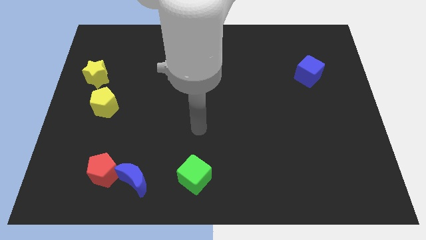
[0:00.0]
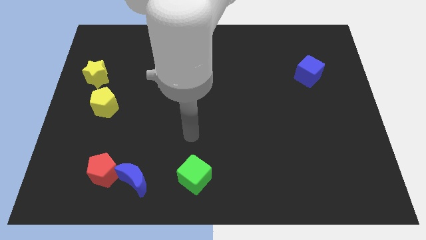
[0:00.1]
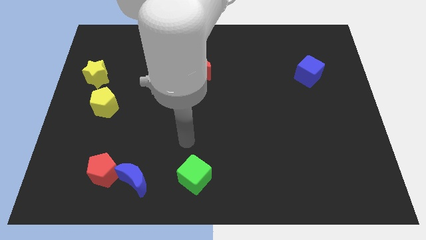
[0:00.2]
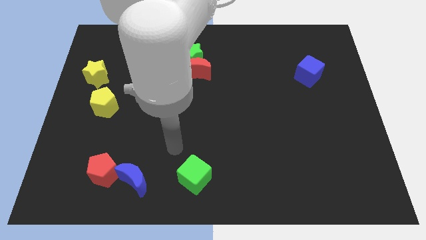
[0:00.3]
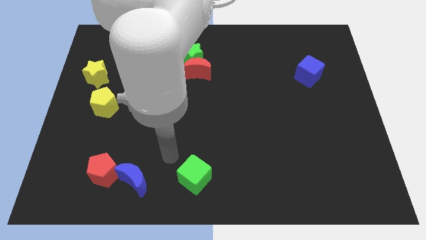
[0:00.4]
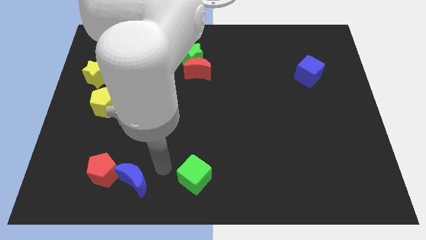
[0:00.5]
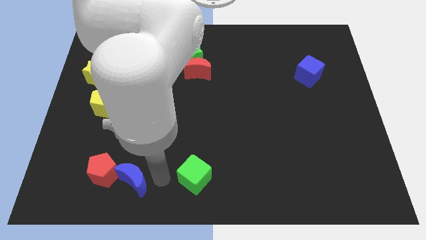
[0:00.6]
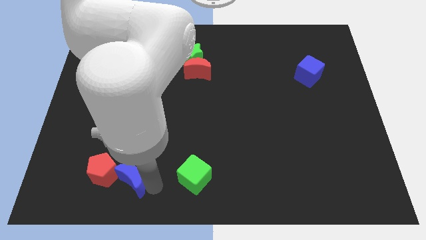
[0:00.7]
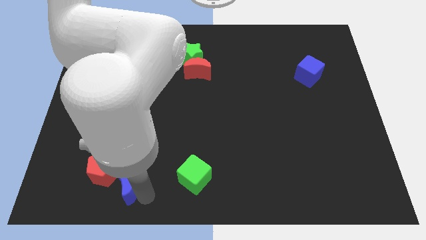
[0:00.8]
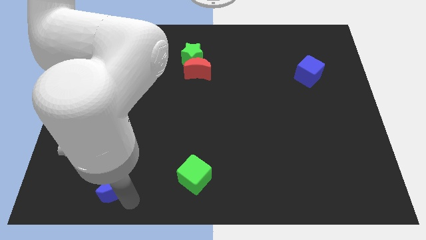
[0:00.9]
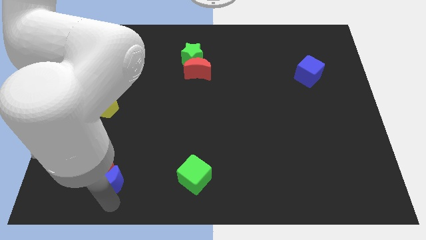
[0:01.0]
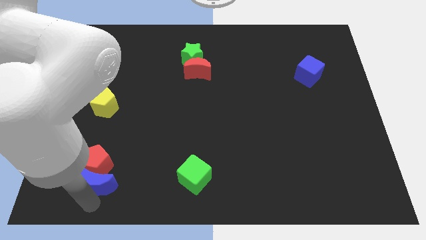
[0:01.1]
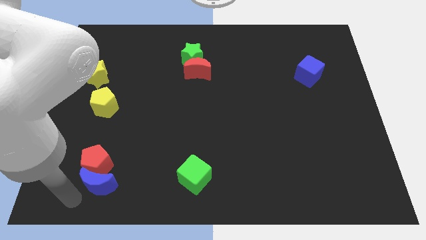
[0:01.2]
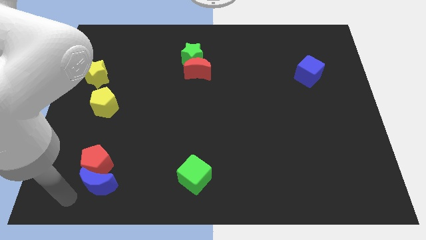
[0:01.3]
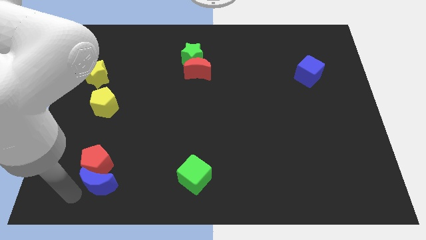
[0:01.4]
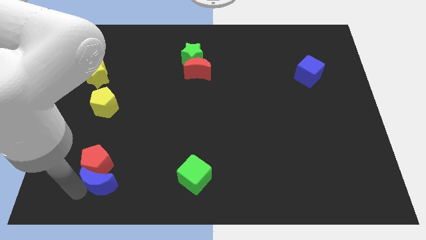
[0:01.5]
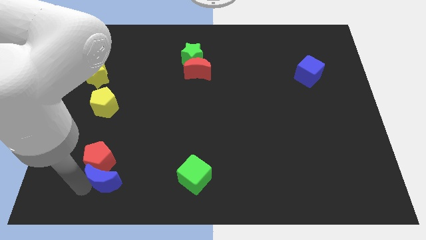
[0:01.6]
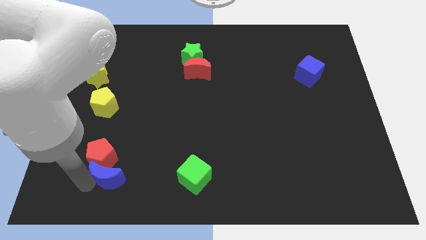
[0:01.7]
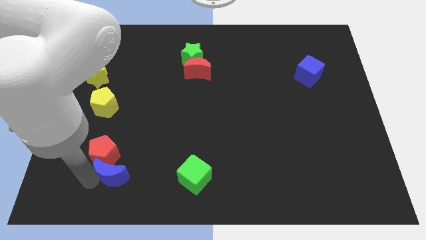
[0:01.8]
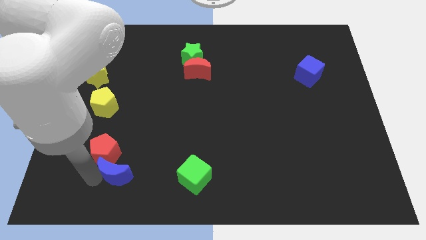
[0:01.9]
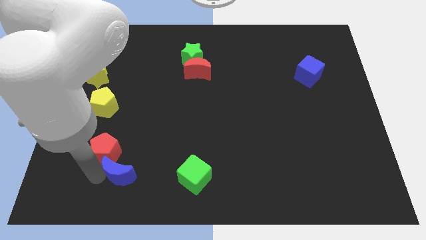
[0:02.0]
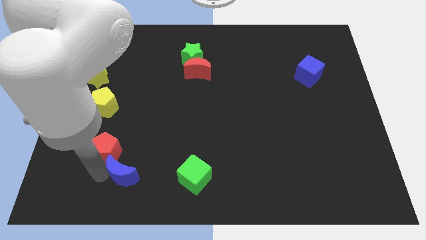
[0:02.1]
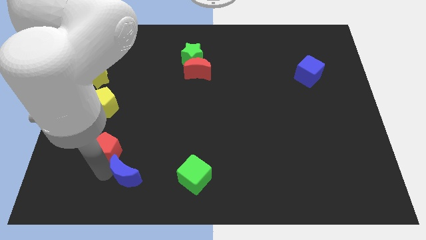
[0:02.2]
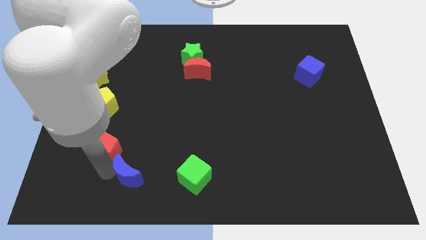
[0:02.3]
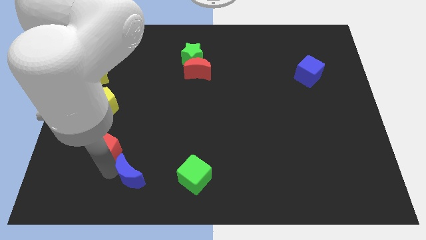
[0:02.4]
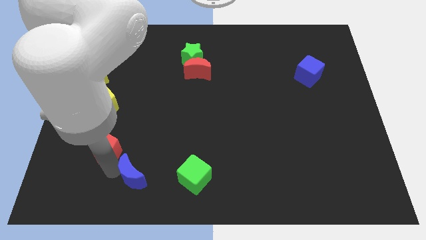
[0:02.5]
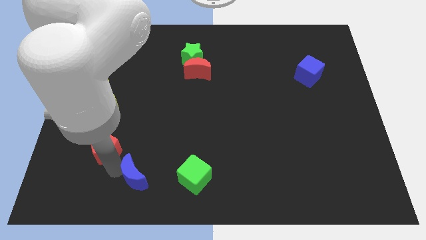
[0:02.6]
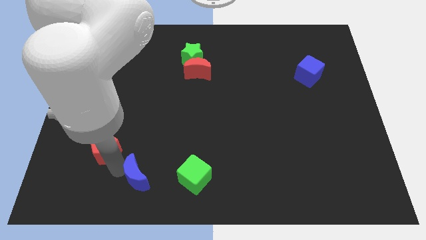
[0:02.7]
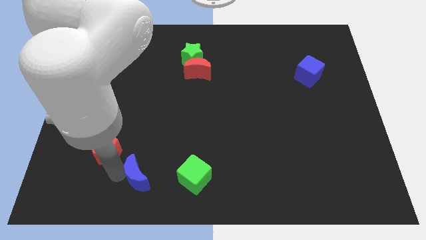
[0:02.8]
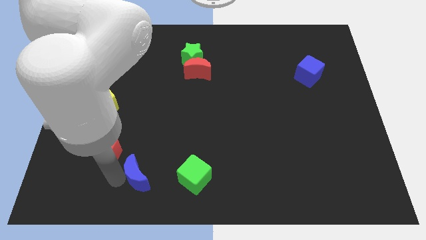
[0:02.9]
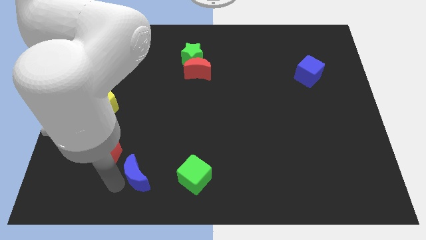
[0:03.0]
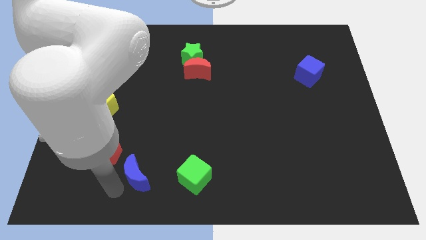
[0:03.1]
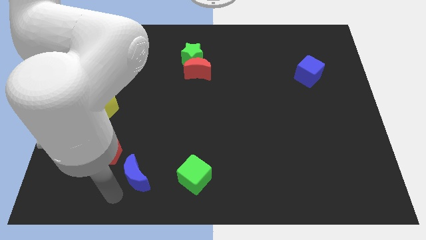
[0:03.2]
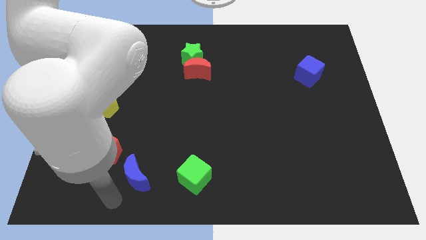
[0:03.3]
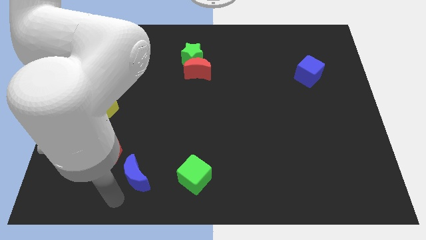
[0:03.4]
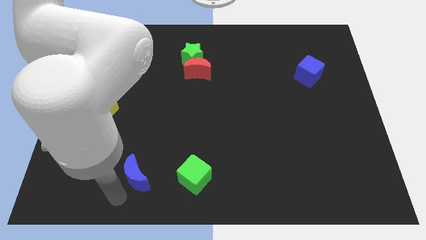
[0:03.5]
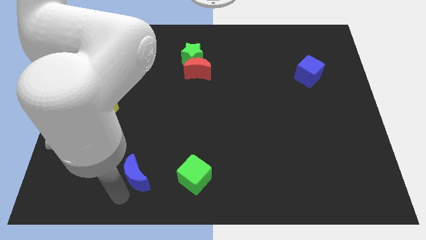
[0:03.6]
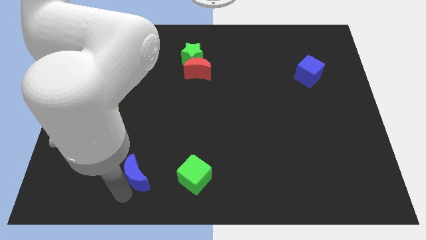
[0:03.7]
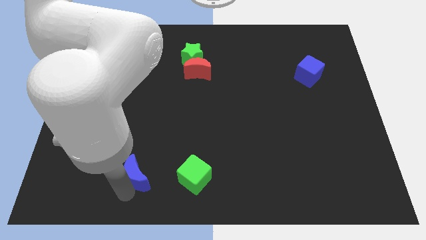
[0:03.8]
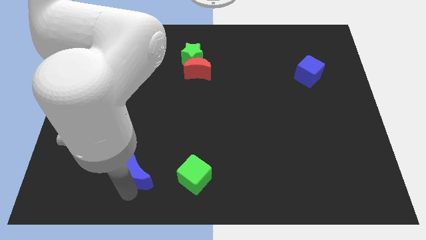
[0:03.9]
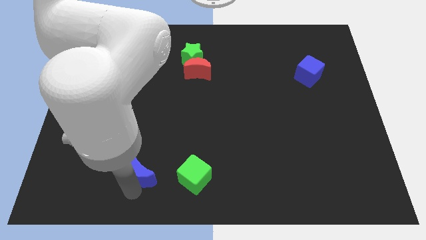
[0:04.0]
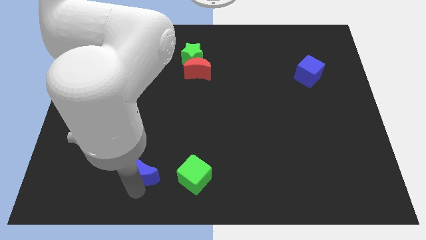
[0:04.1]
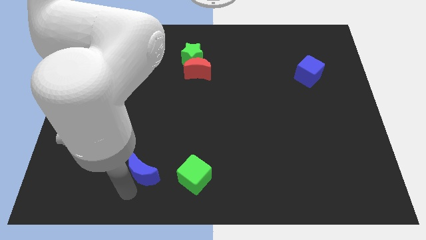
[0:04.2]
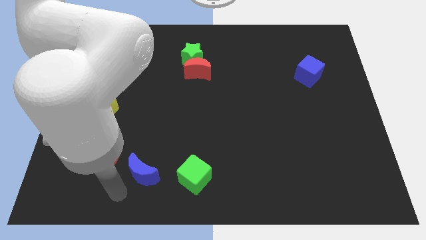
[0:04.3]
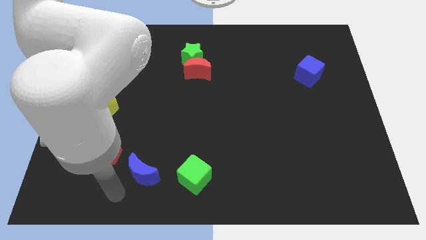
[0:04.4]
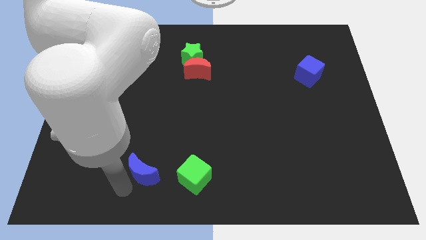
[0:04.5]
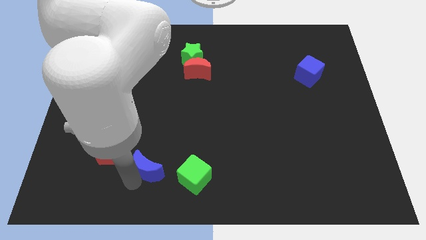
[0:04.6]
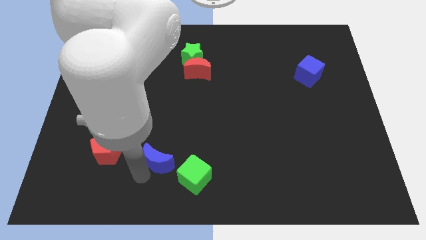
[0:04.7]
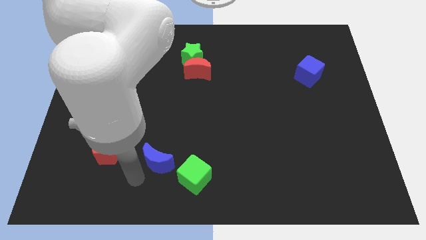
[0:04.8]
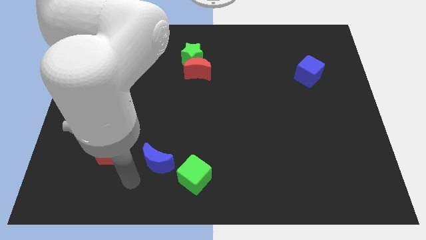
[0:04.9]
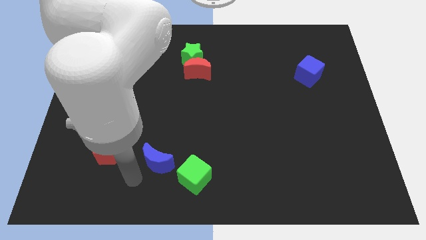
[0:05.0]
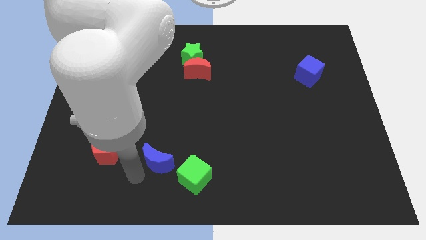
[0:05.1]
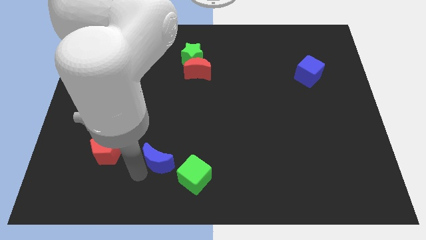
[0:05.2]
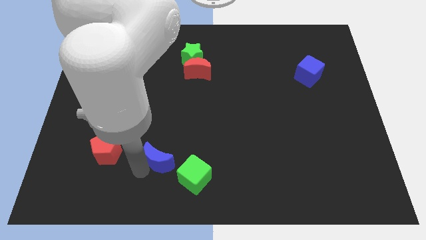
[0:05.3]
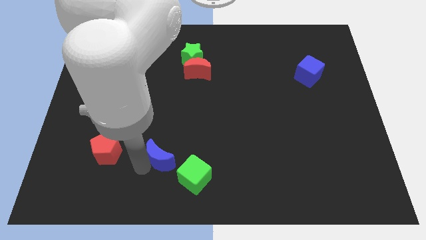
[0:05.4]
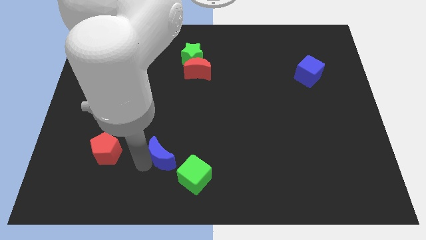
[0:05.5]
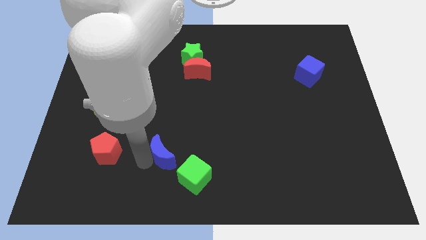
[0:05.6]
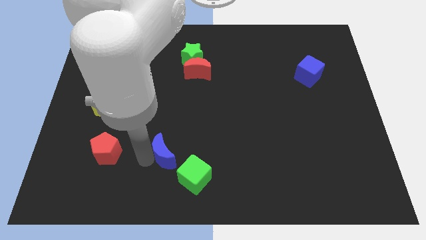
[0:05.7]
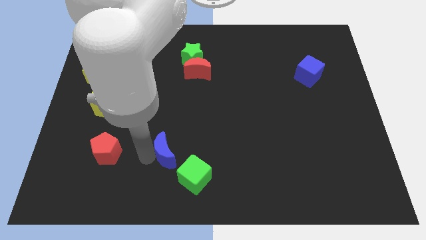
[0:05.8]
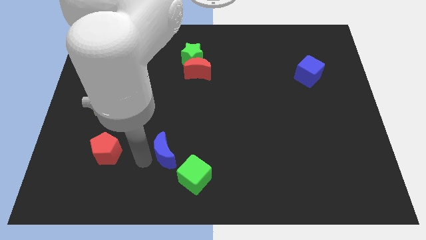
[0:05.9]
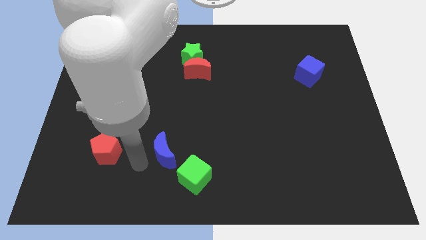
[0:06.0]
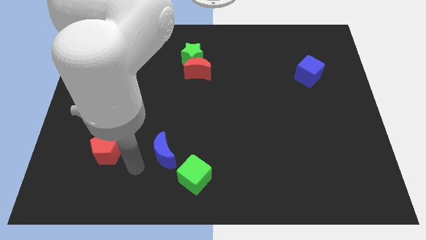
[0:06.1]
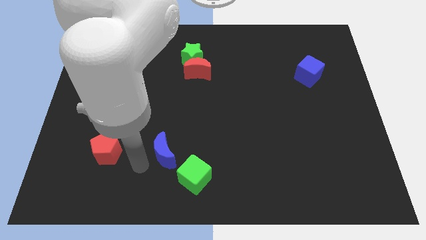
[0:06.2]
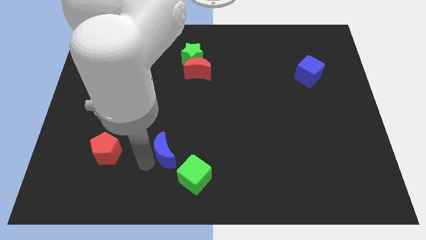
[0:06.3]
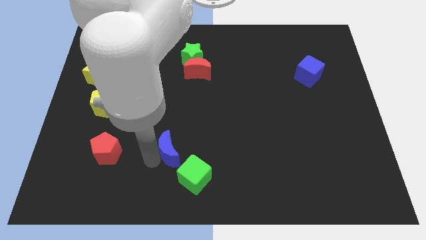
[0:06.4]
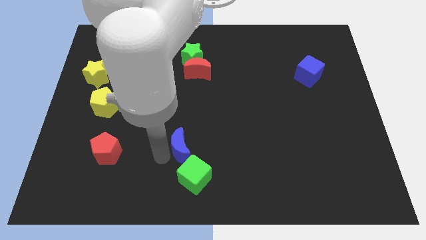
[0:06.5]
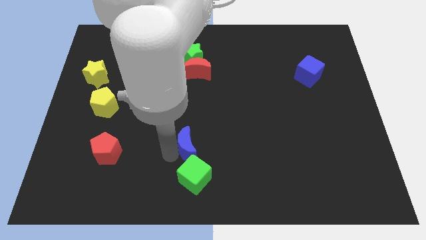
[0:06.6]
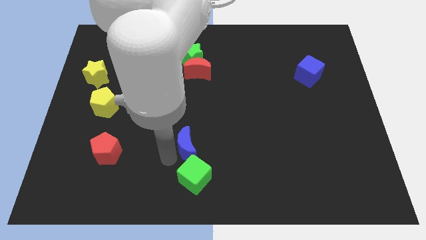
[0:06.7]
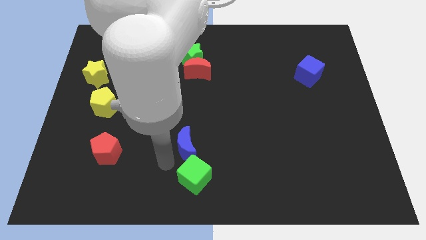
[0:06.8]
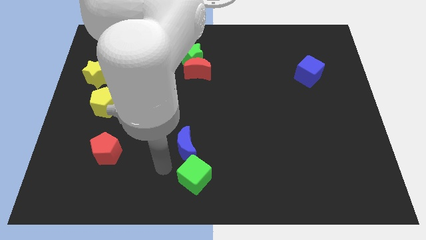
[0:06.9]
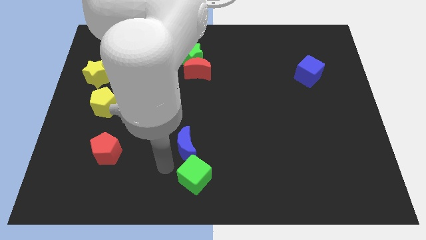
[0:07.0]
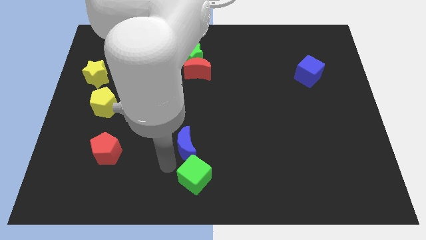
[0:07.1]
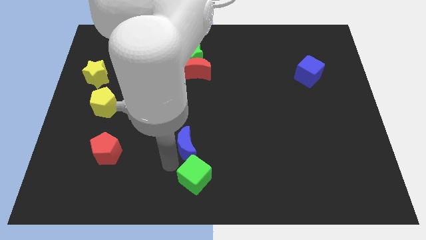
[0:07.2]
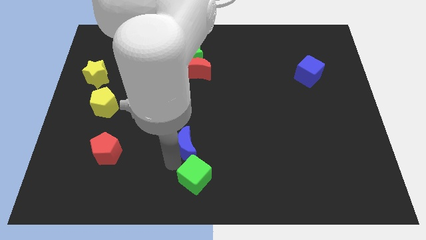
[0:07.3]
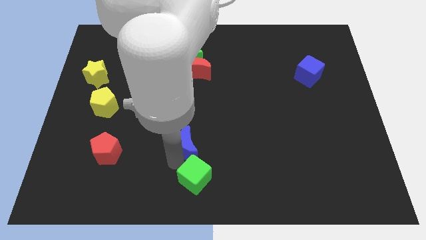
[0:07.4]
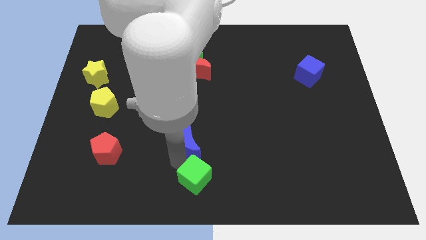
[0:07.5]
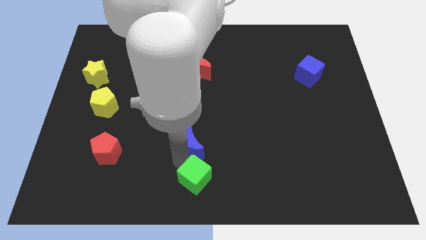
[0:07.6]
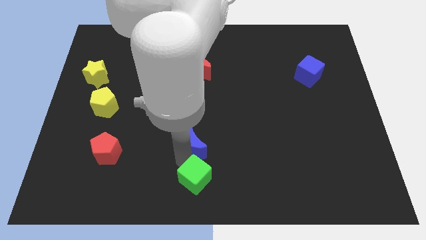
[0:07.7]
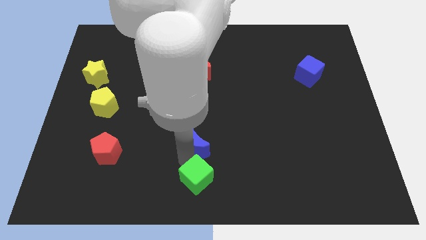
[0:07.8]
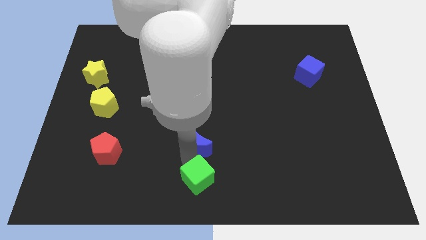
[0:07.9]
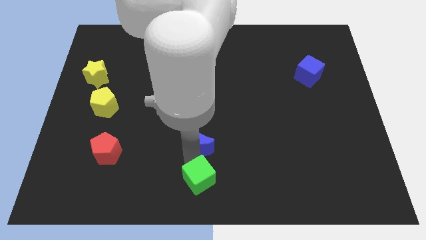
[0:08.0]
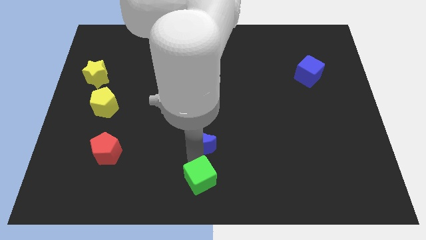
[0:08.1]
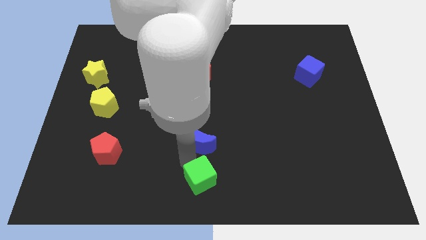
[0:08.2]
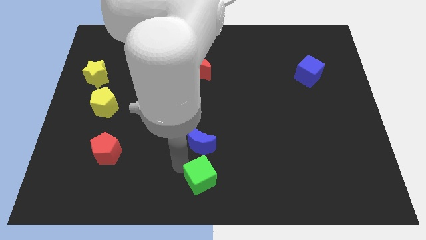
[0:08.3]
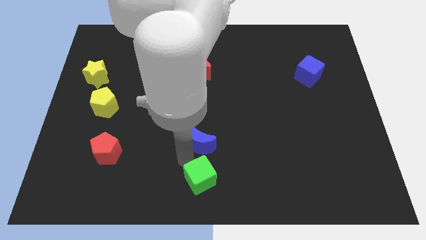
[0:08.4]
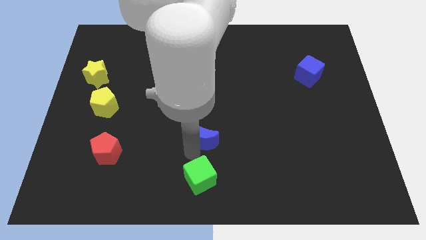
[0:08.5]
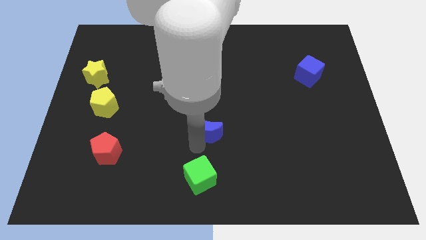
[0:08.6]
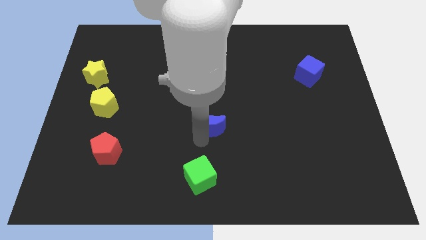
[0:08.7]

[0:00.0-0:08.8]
slide the blue moon up and to the right diagonally
